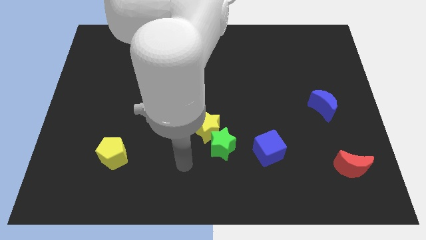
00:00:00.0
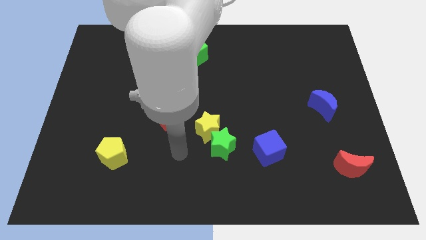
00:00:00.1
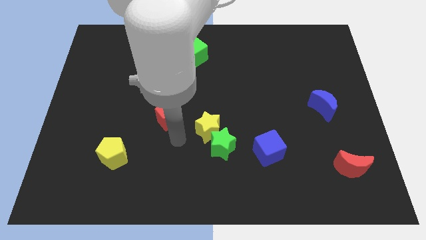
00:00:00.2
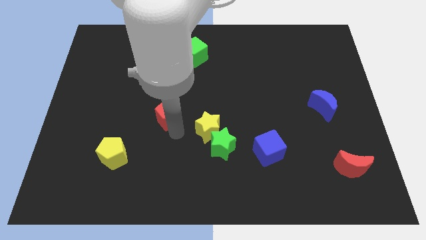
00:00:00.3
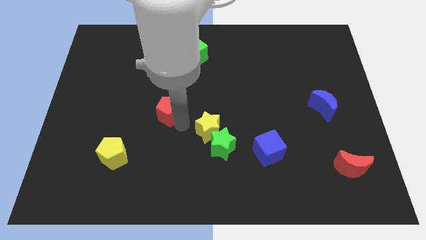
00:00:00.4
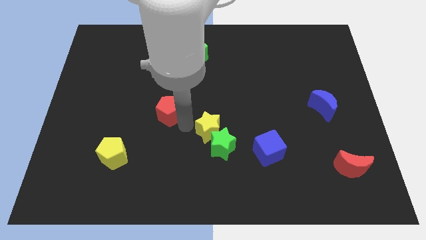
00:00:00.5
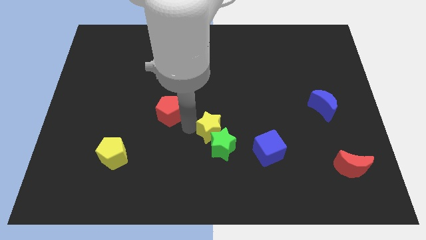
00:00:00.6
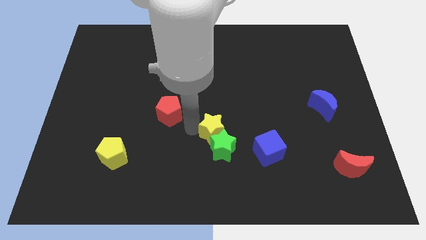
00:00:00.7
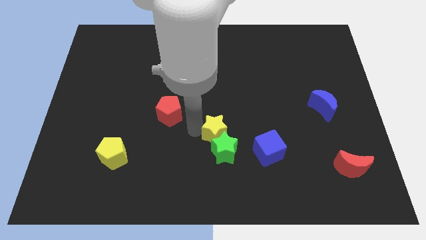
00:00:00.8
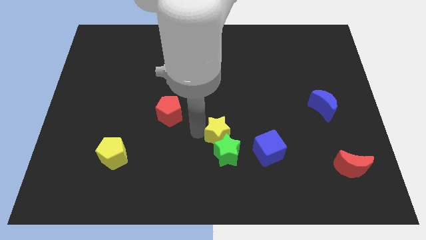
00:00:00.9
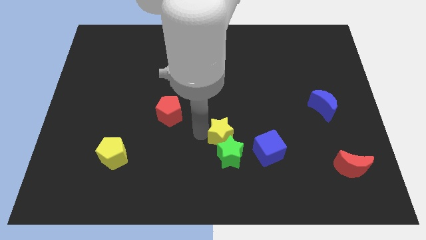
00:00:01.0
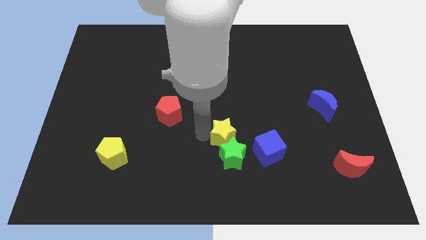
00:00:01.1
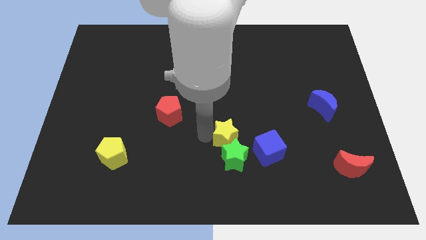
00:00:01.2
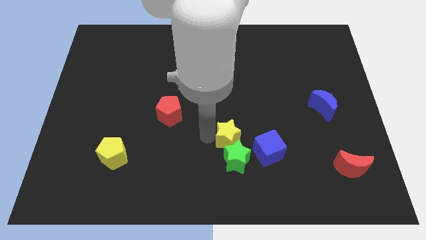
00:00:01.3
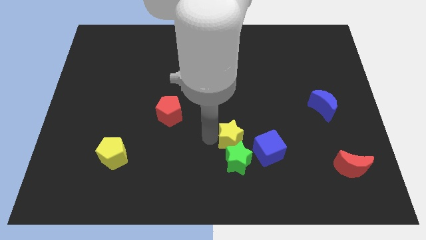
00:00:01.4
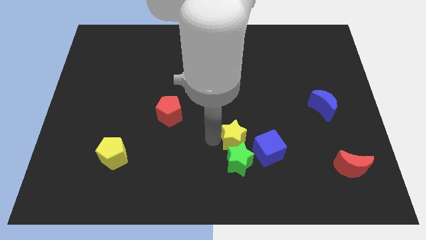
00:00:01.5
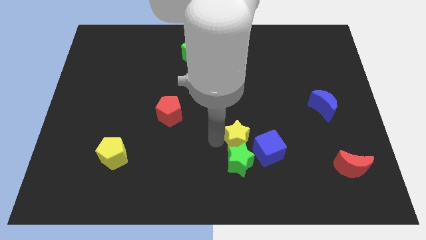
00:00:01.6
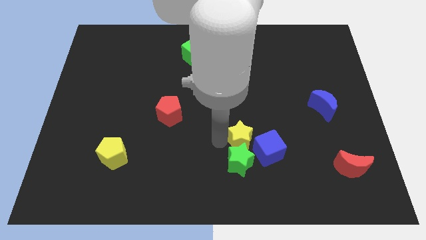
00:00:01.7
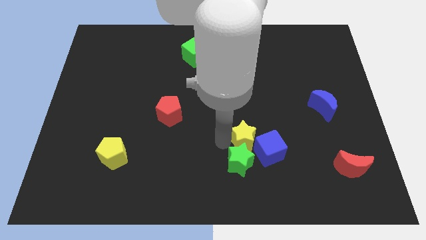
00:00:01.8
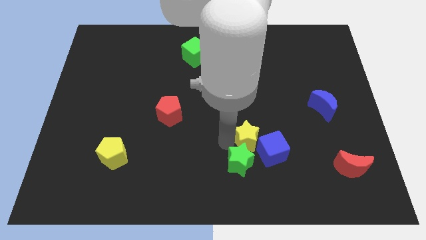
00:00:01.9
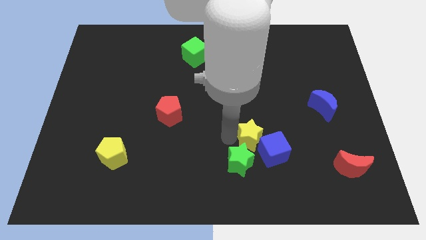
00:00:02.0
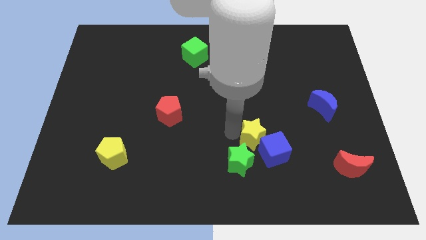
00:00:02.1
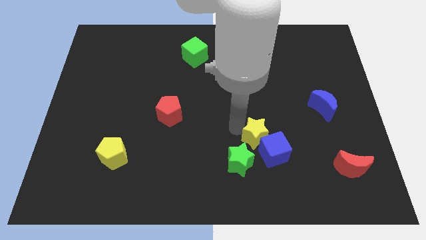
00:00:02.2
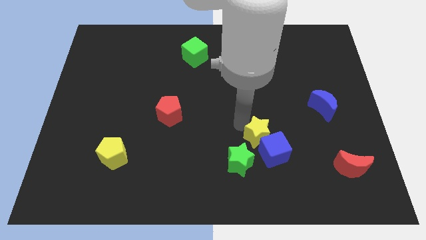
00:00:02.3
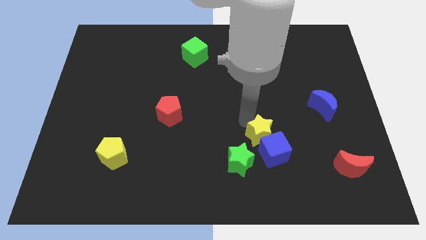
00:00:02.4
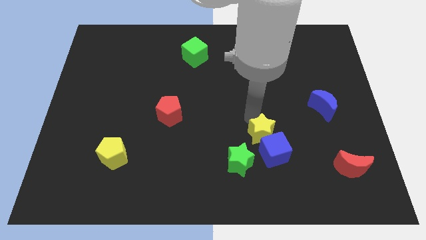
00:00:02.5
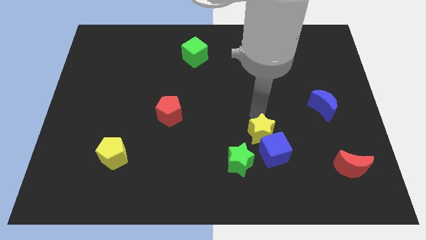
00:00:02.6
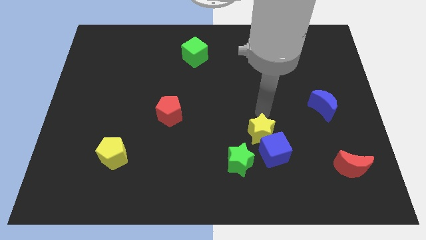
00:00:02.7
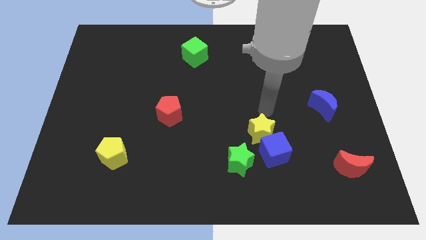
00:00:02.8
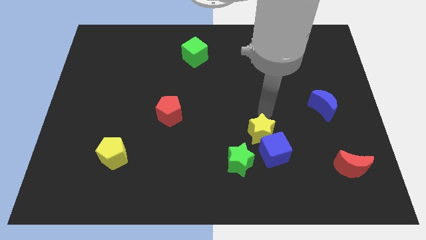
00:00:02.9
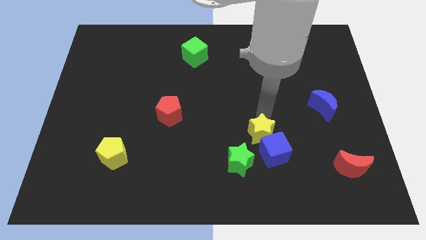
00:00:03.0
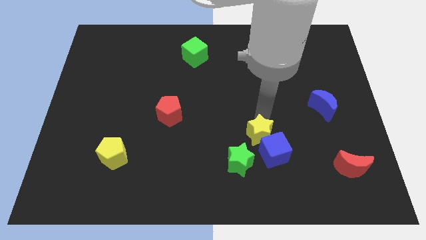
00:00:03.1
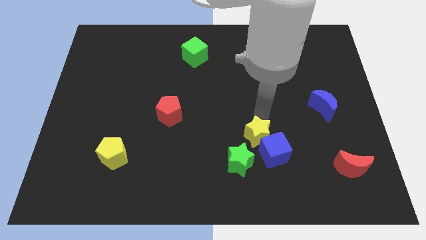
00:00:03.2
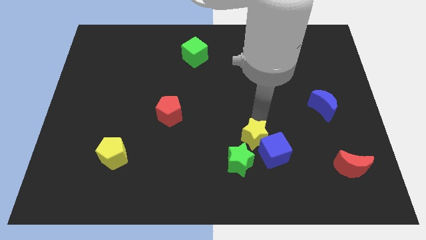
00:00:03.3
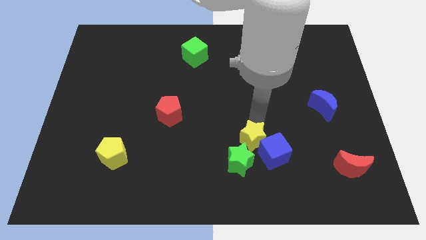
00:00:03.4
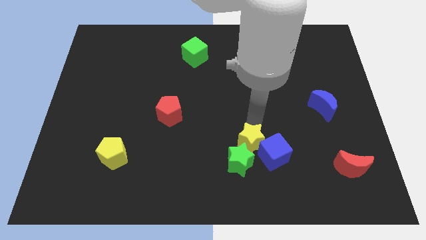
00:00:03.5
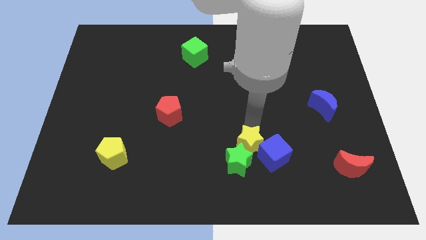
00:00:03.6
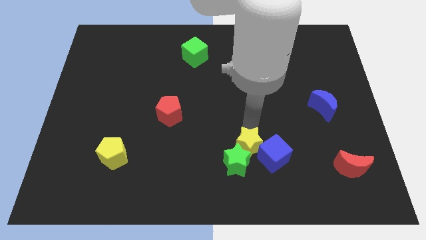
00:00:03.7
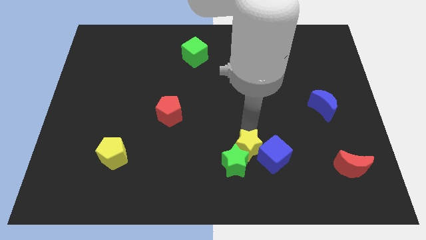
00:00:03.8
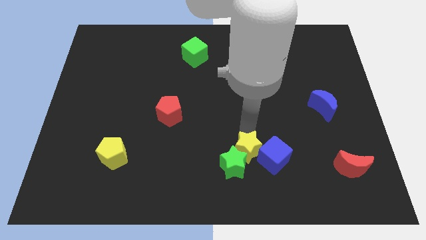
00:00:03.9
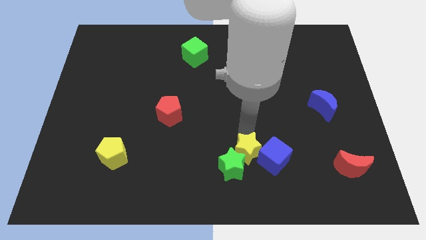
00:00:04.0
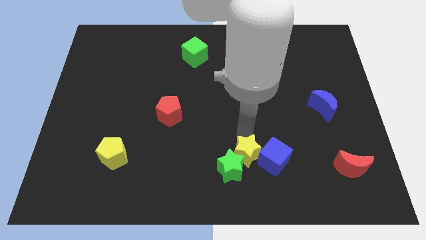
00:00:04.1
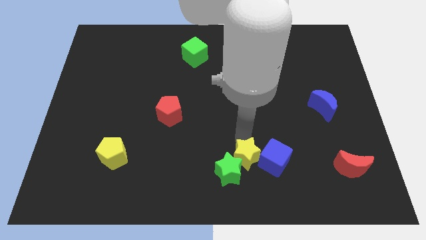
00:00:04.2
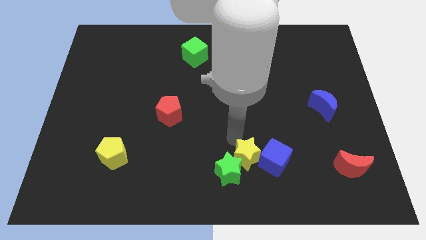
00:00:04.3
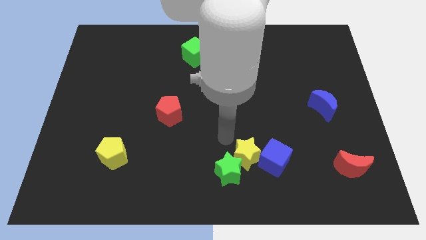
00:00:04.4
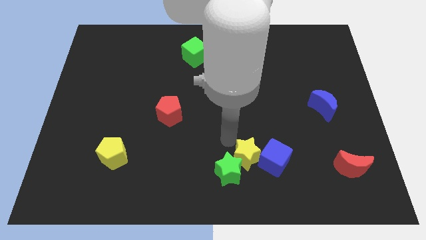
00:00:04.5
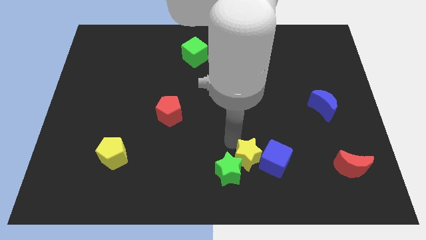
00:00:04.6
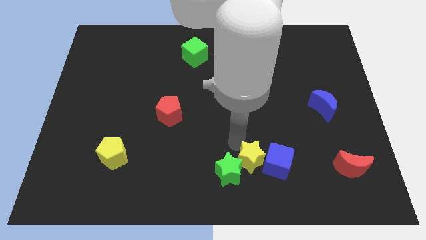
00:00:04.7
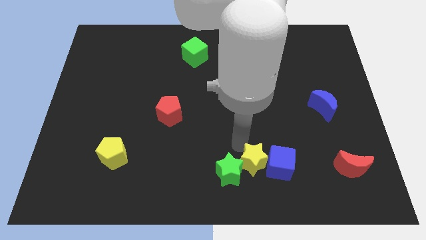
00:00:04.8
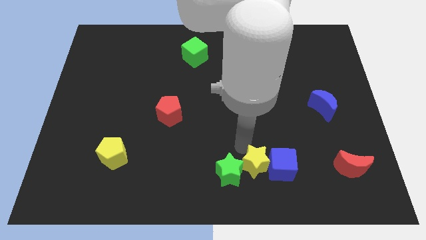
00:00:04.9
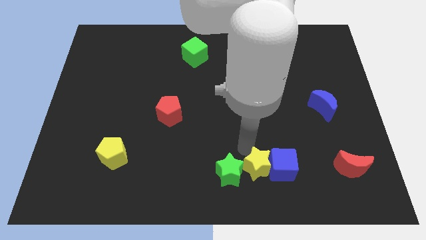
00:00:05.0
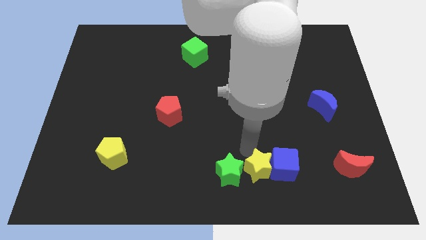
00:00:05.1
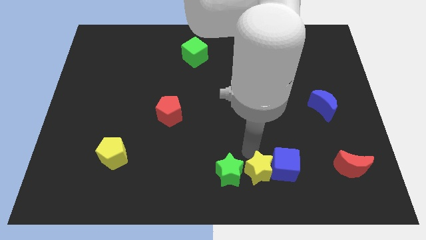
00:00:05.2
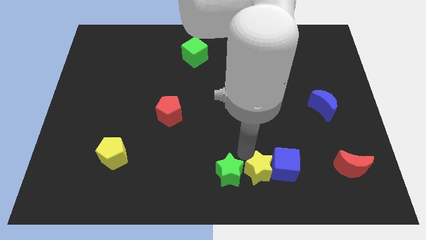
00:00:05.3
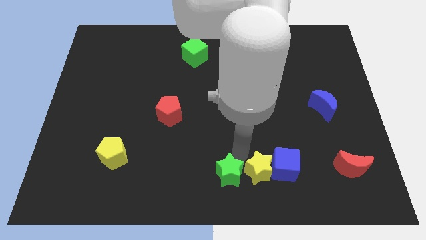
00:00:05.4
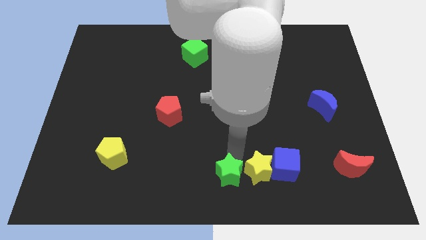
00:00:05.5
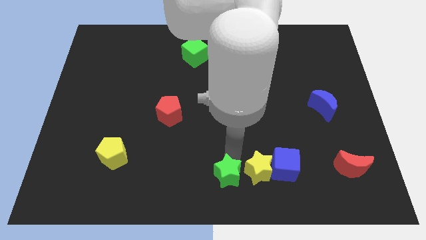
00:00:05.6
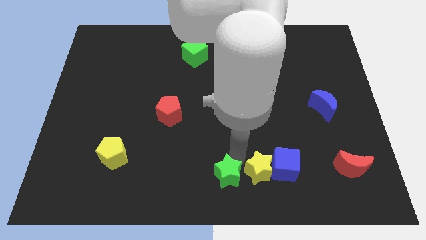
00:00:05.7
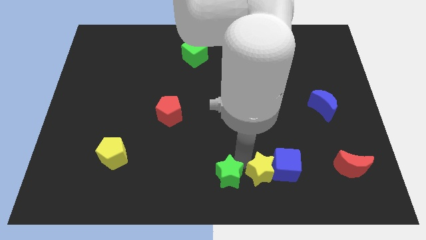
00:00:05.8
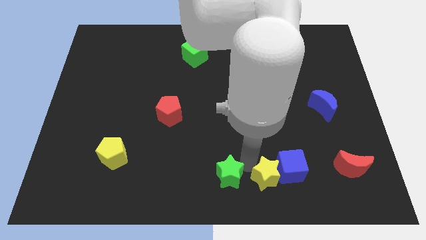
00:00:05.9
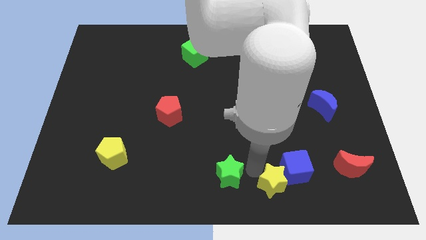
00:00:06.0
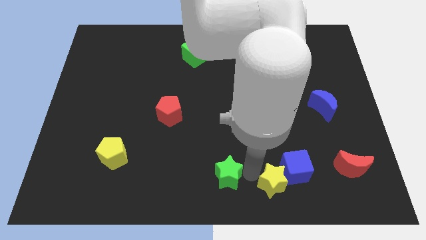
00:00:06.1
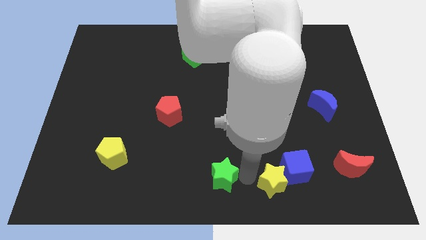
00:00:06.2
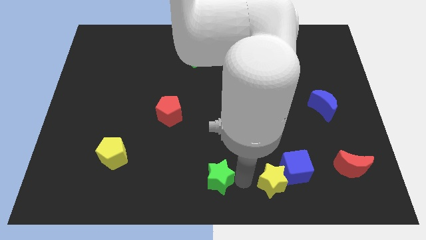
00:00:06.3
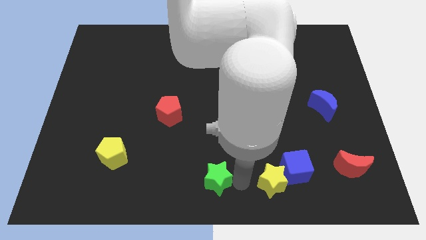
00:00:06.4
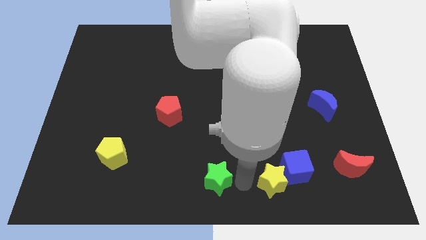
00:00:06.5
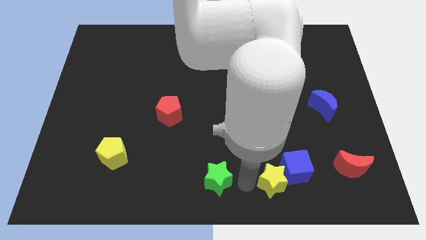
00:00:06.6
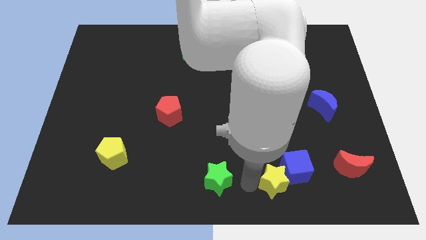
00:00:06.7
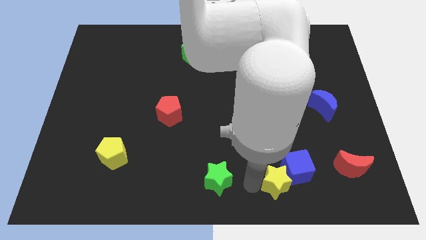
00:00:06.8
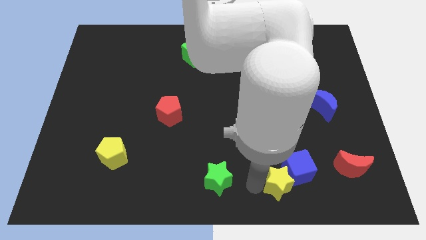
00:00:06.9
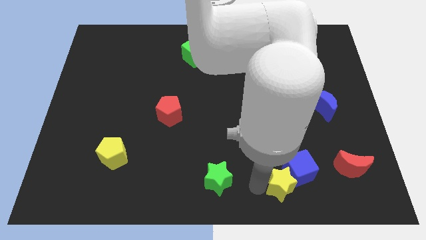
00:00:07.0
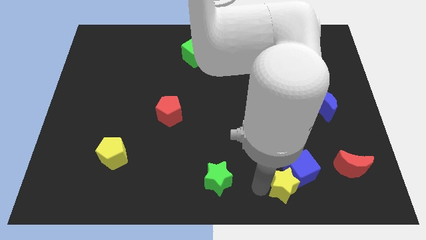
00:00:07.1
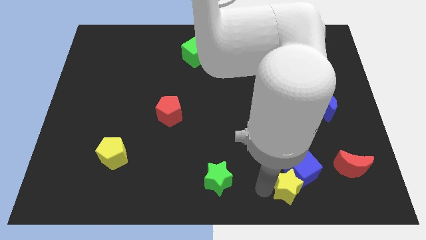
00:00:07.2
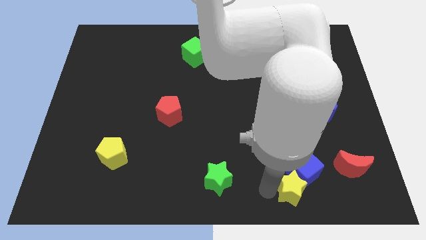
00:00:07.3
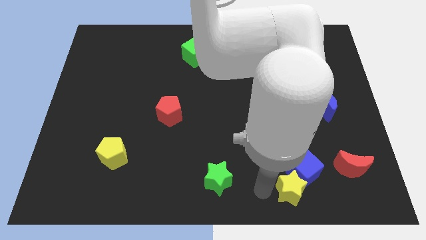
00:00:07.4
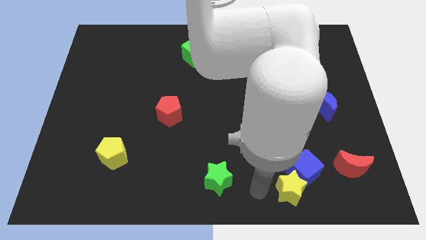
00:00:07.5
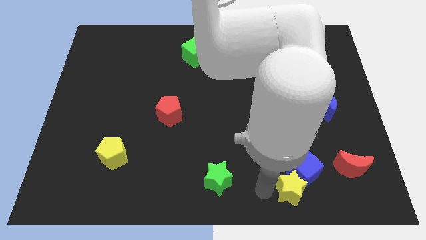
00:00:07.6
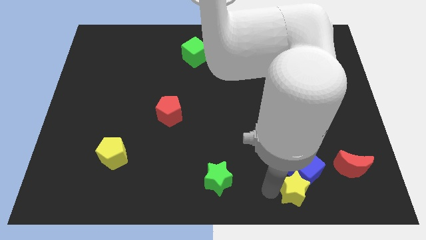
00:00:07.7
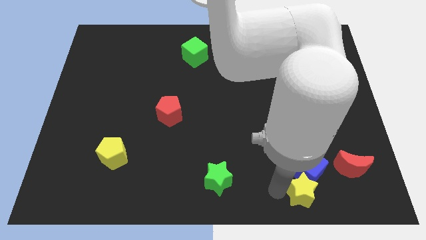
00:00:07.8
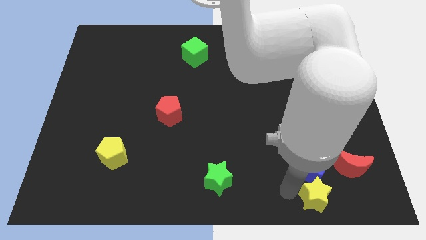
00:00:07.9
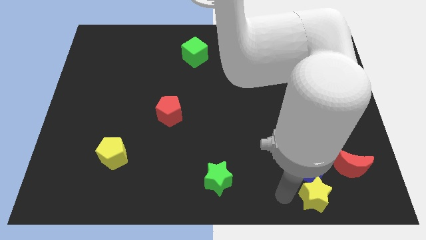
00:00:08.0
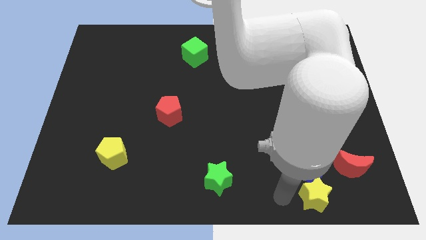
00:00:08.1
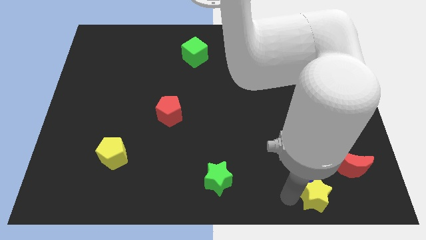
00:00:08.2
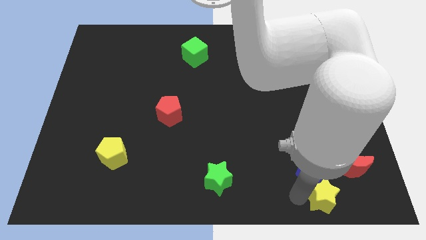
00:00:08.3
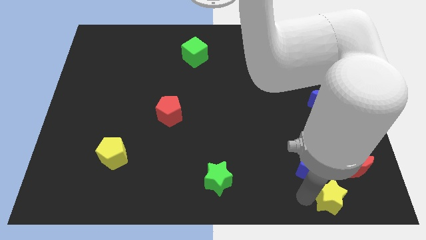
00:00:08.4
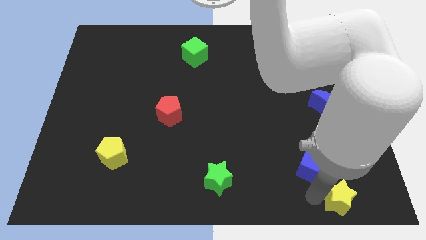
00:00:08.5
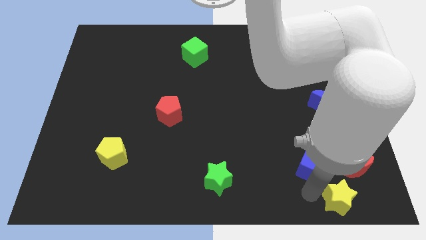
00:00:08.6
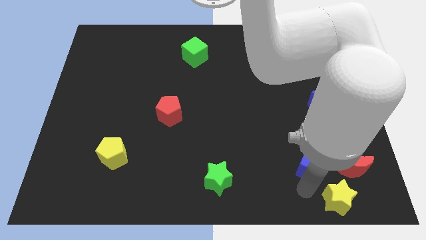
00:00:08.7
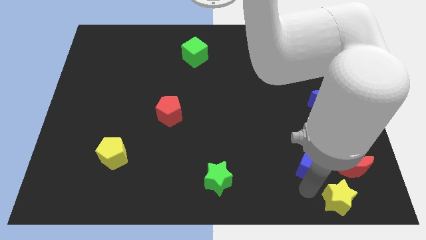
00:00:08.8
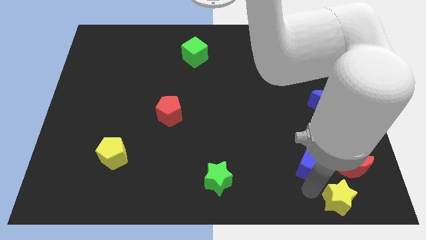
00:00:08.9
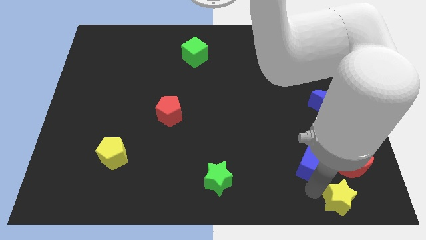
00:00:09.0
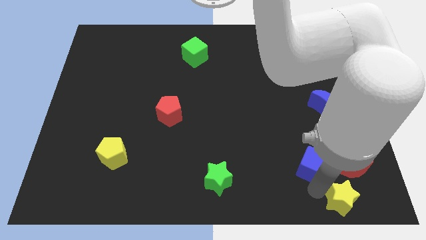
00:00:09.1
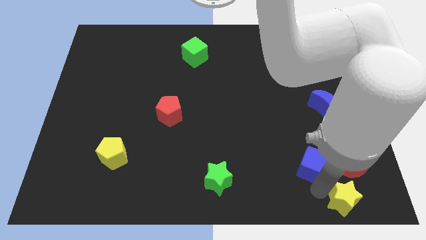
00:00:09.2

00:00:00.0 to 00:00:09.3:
push the yellow star to the bottom right
